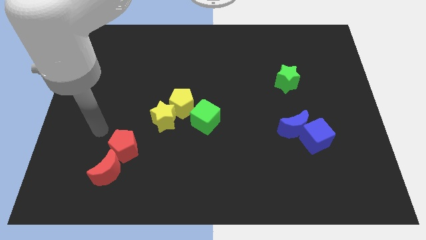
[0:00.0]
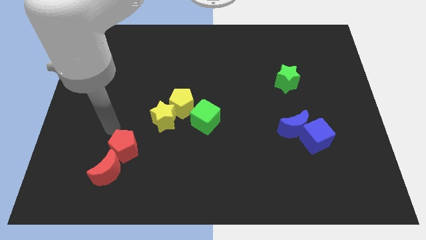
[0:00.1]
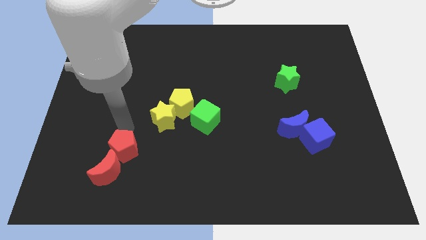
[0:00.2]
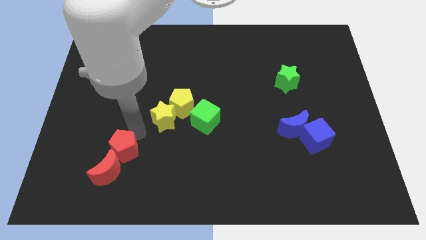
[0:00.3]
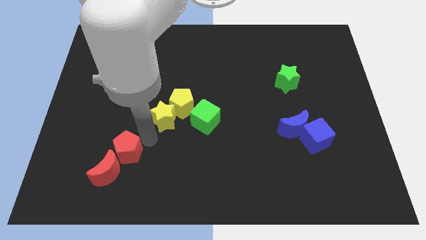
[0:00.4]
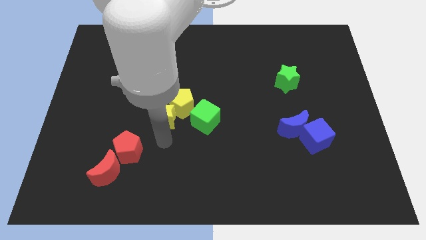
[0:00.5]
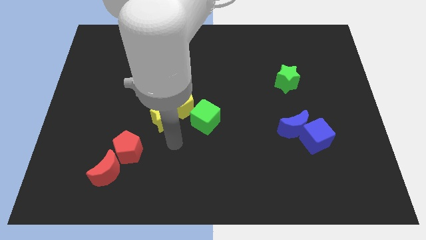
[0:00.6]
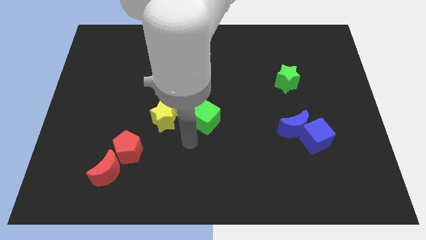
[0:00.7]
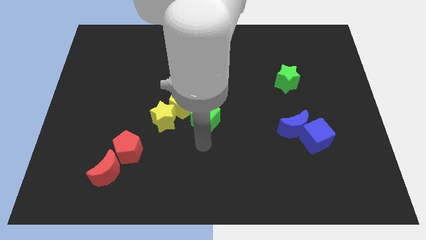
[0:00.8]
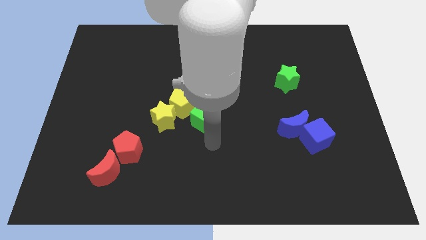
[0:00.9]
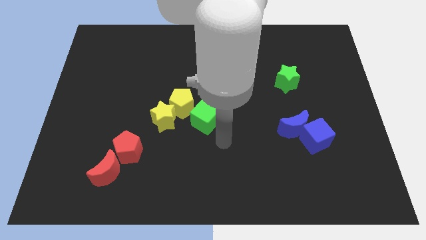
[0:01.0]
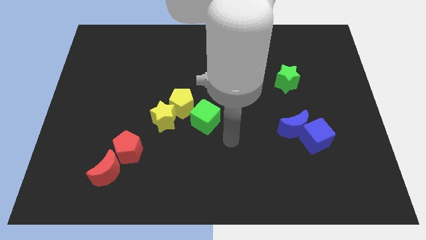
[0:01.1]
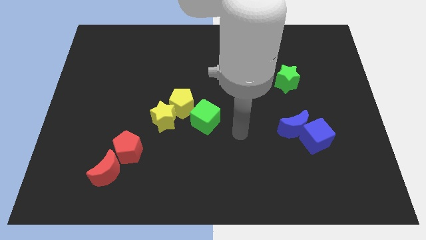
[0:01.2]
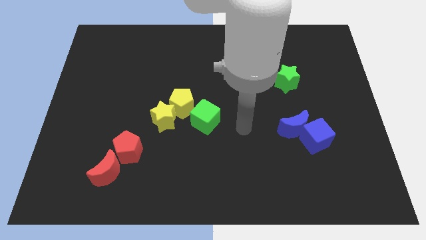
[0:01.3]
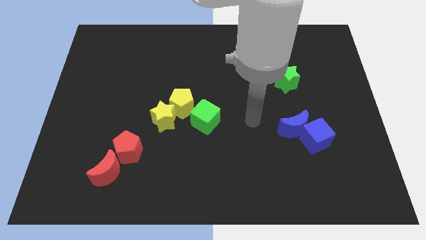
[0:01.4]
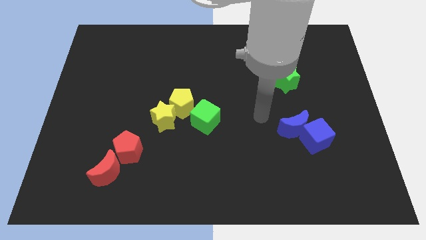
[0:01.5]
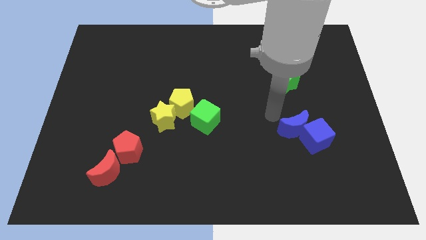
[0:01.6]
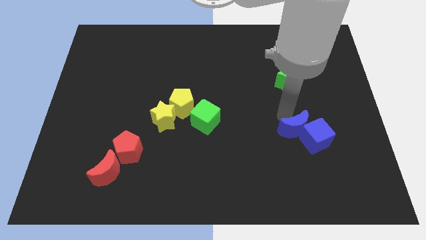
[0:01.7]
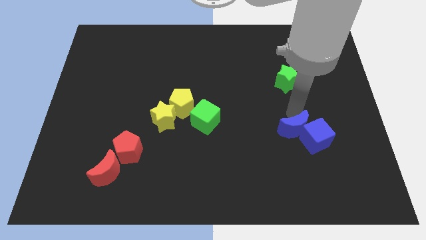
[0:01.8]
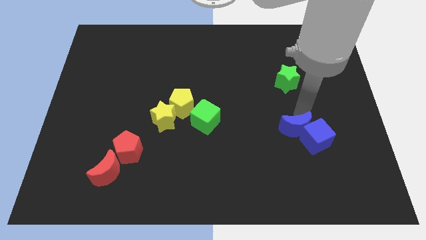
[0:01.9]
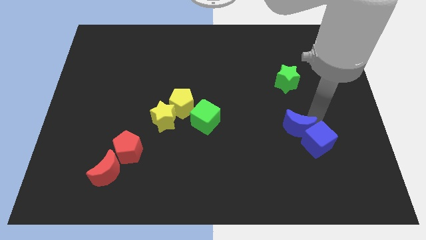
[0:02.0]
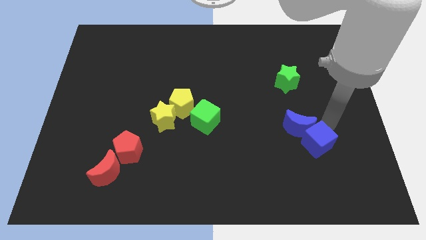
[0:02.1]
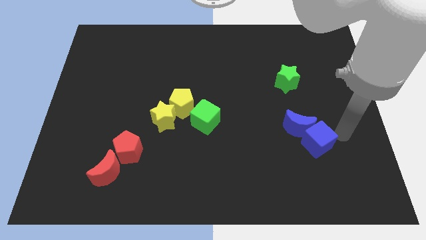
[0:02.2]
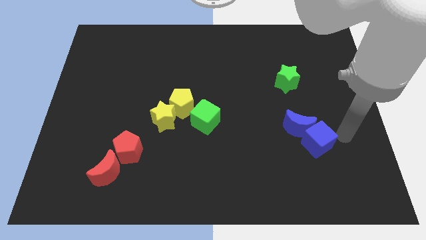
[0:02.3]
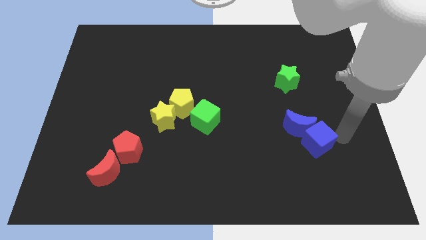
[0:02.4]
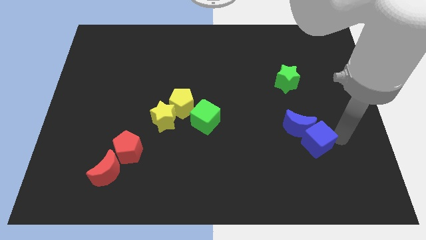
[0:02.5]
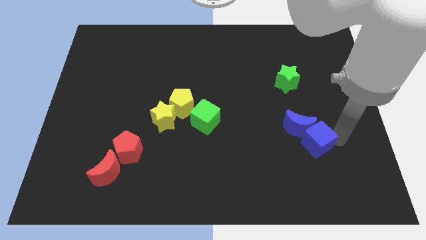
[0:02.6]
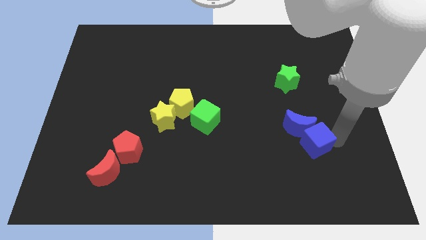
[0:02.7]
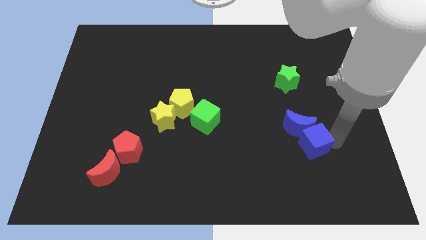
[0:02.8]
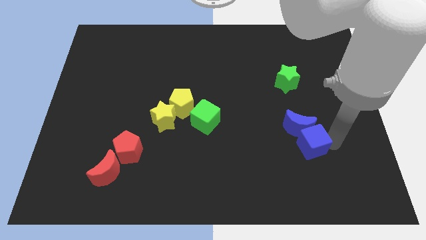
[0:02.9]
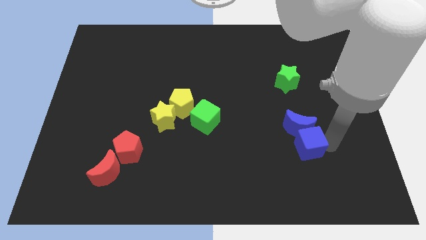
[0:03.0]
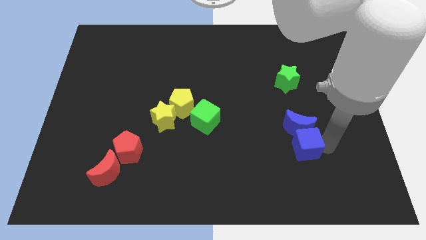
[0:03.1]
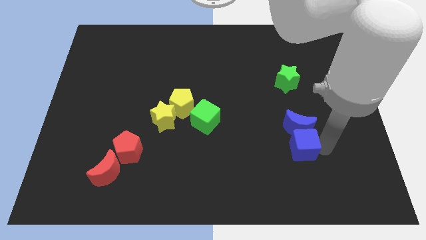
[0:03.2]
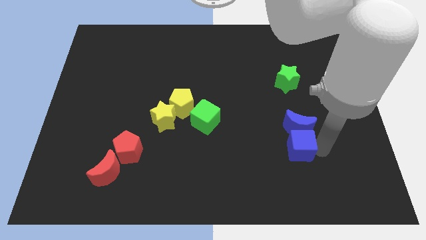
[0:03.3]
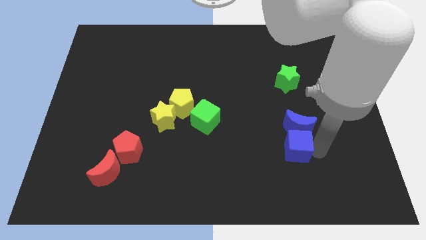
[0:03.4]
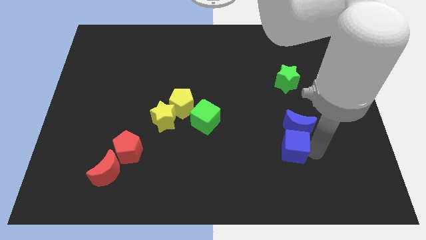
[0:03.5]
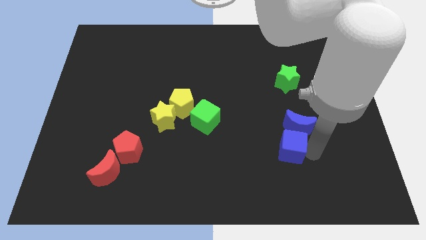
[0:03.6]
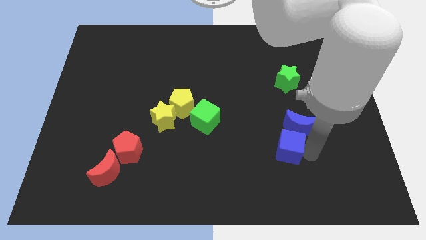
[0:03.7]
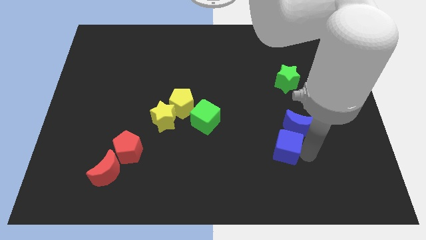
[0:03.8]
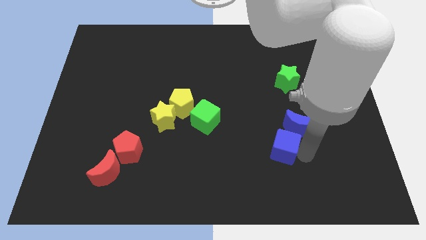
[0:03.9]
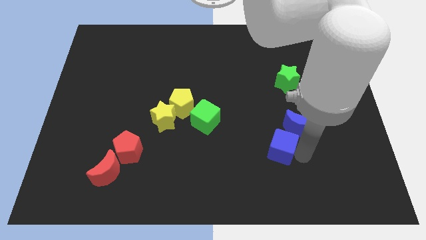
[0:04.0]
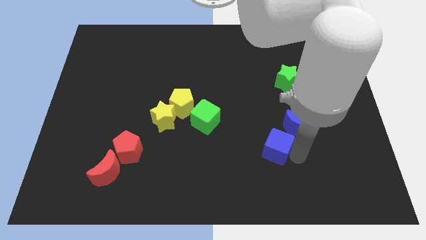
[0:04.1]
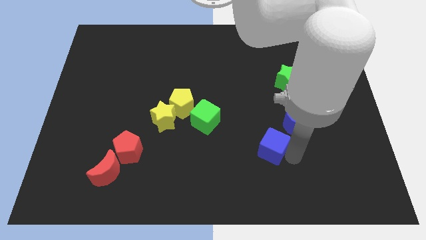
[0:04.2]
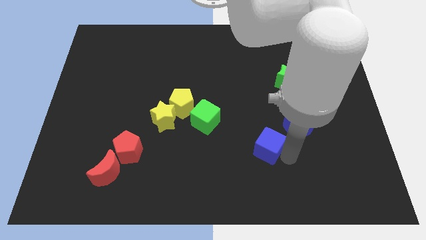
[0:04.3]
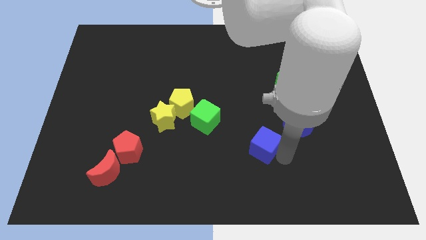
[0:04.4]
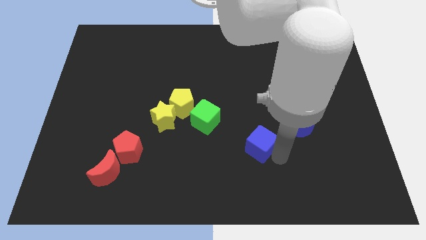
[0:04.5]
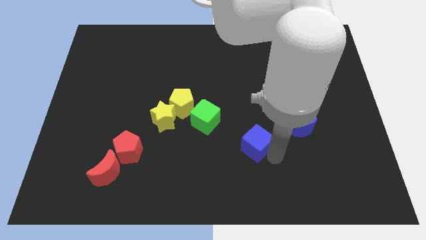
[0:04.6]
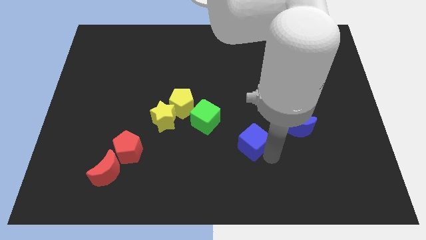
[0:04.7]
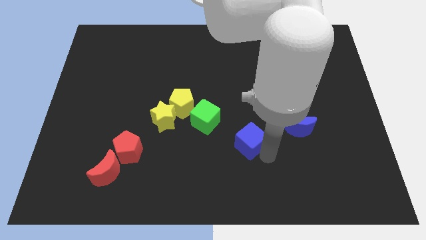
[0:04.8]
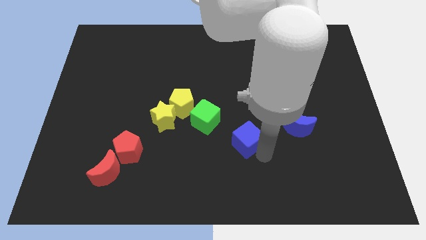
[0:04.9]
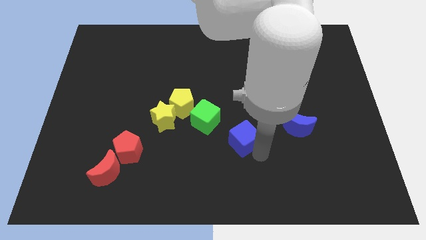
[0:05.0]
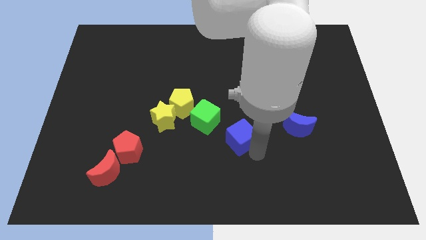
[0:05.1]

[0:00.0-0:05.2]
slide the blue cube to the middle

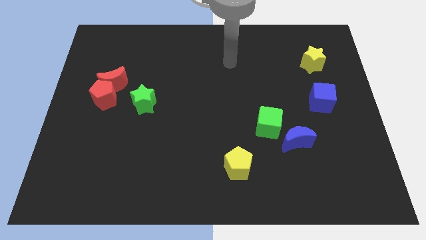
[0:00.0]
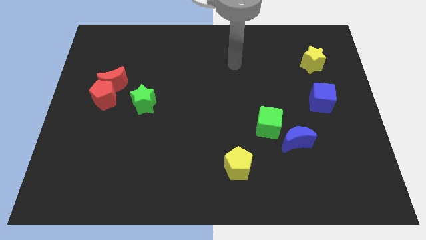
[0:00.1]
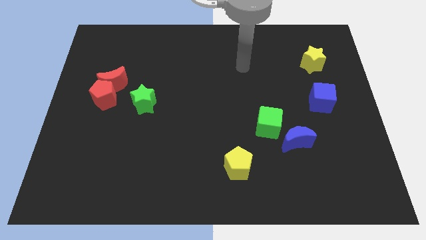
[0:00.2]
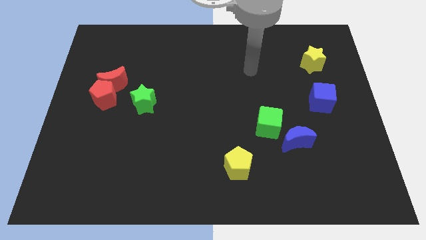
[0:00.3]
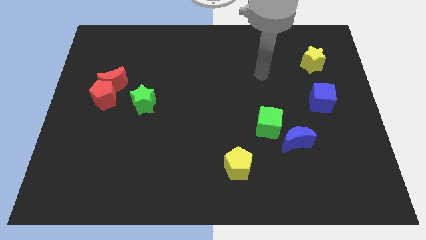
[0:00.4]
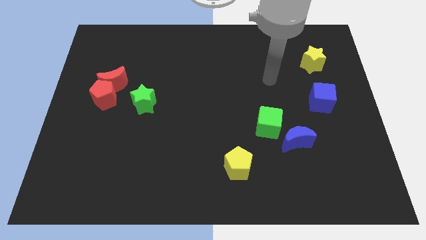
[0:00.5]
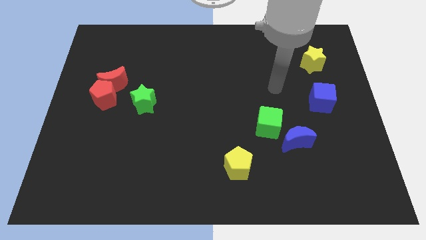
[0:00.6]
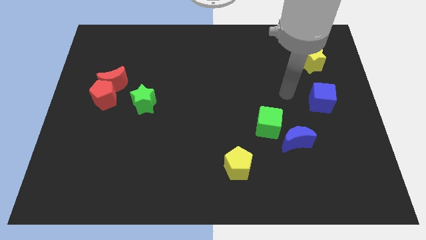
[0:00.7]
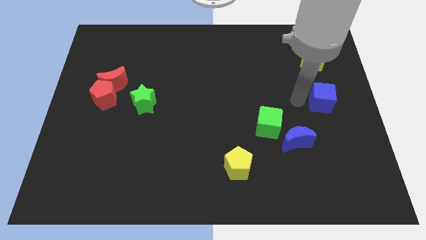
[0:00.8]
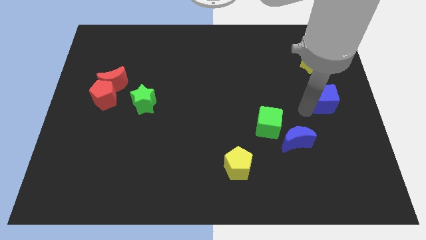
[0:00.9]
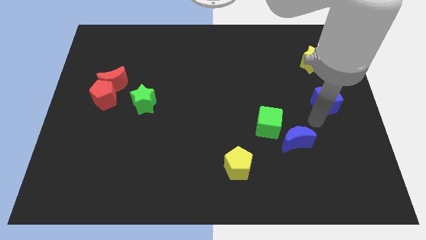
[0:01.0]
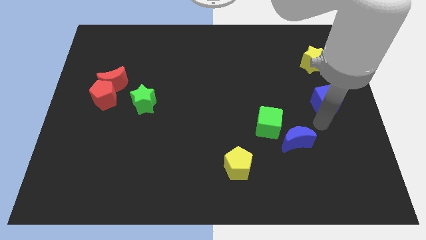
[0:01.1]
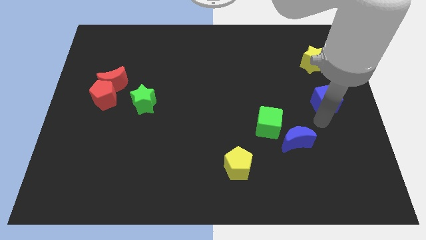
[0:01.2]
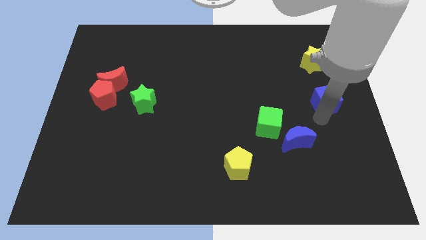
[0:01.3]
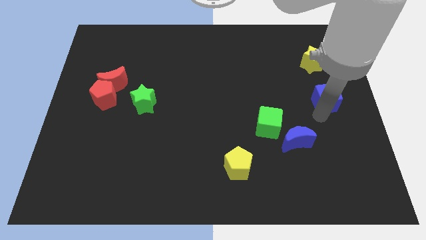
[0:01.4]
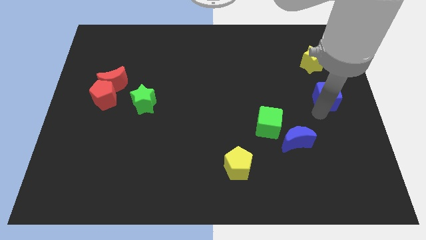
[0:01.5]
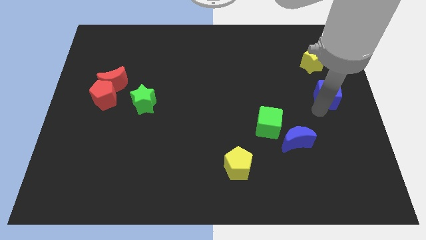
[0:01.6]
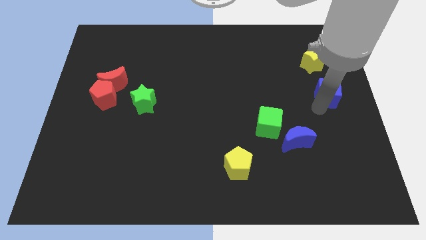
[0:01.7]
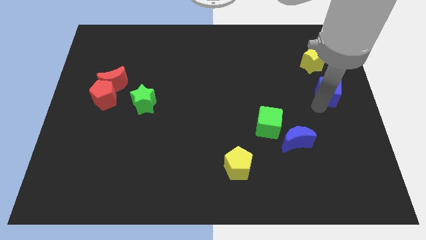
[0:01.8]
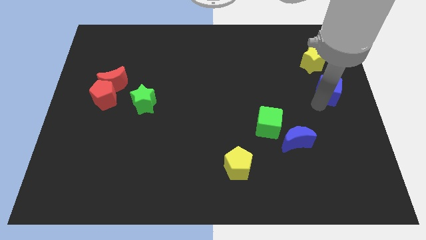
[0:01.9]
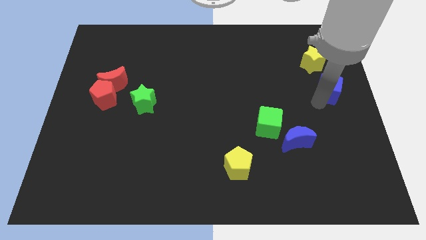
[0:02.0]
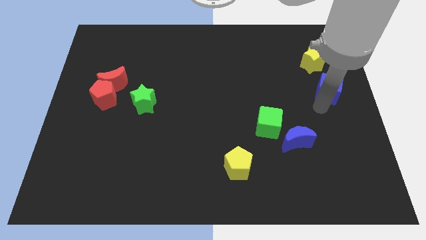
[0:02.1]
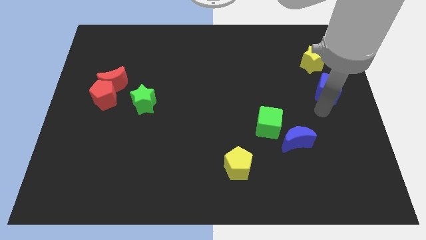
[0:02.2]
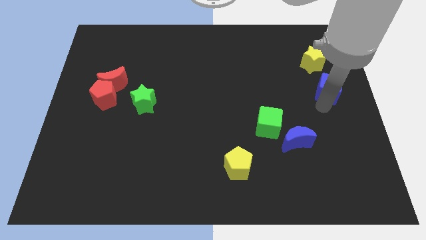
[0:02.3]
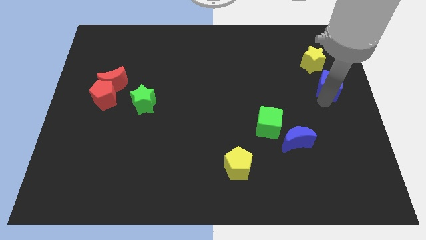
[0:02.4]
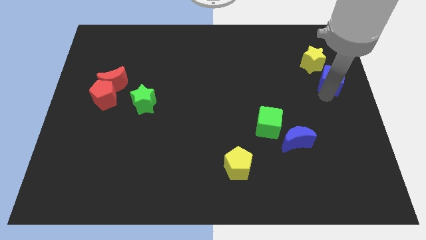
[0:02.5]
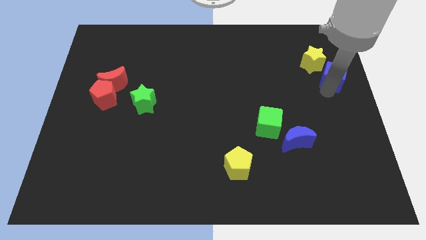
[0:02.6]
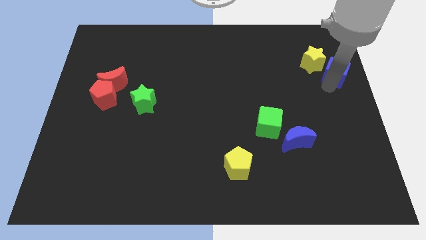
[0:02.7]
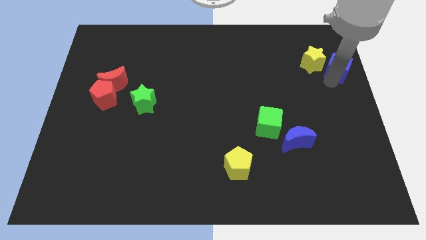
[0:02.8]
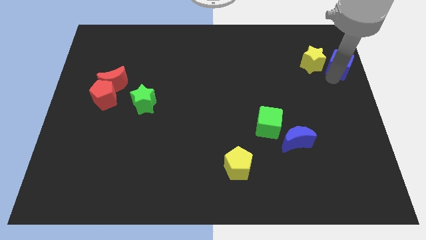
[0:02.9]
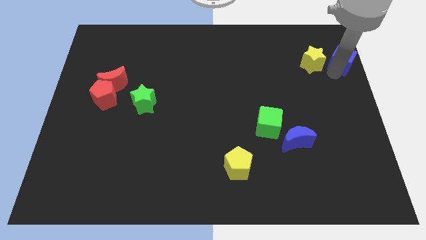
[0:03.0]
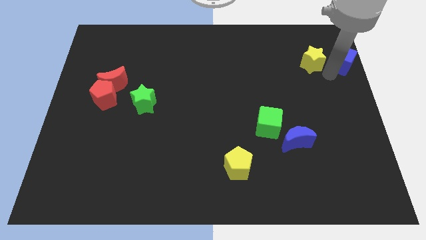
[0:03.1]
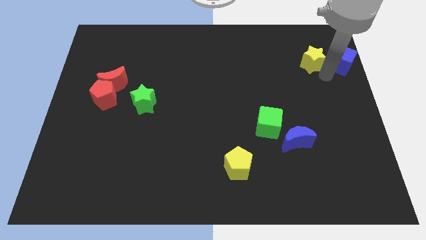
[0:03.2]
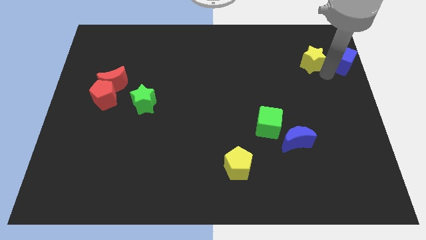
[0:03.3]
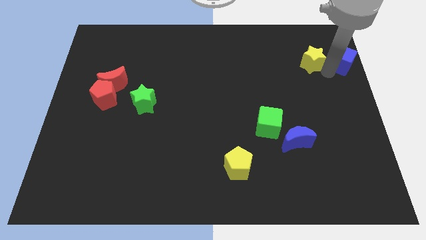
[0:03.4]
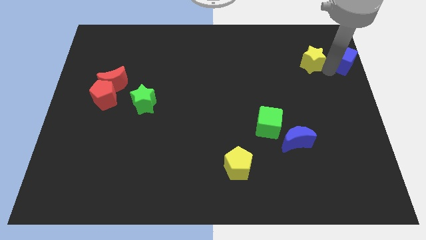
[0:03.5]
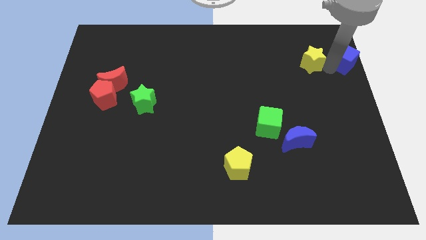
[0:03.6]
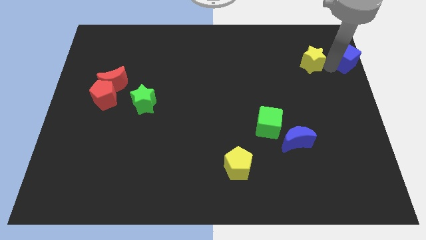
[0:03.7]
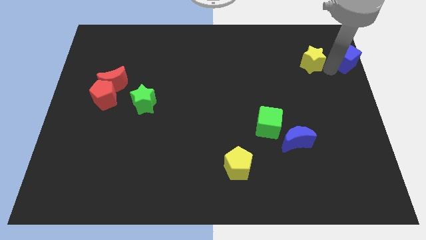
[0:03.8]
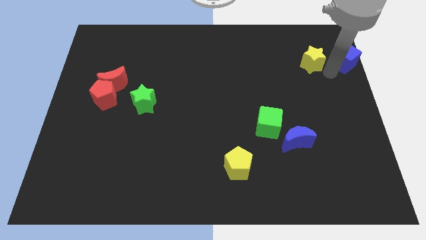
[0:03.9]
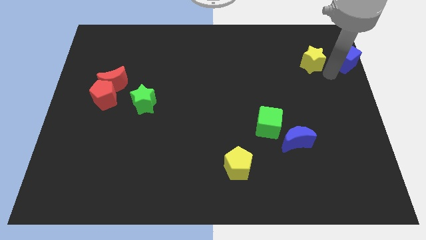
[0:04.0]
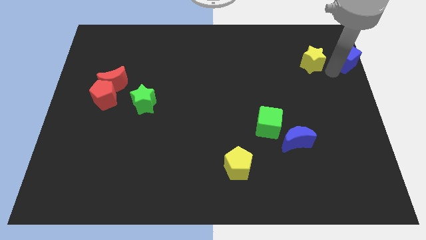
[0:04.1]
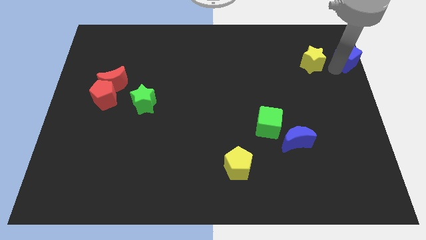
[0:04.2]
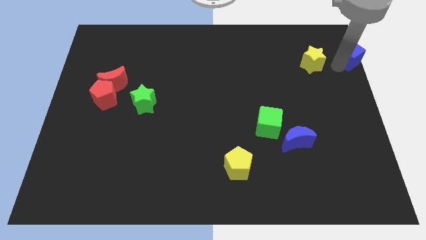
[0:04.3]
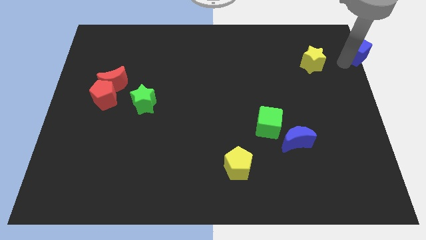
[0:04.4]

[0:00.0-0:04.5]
push the blue cube to the top right corner
